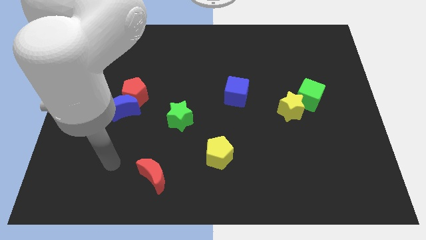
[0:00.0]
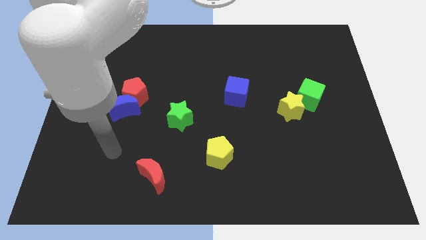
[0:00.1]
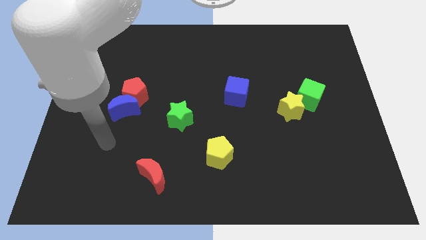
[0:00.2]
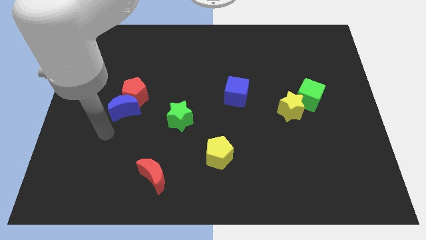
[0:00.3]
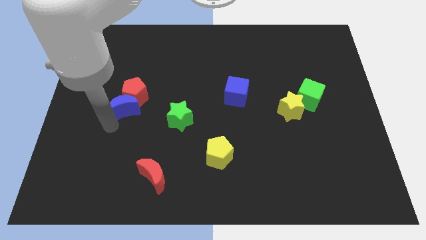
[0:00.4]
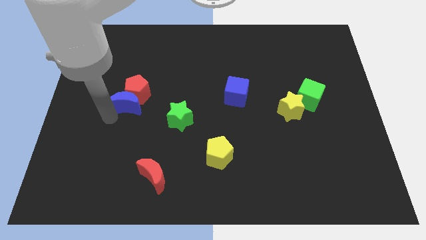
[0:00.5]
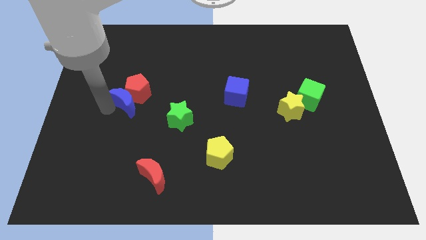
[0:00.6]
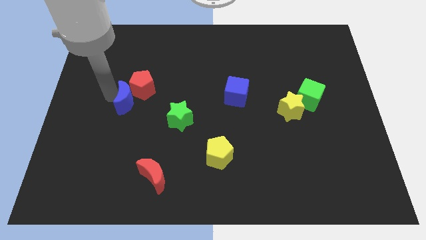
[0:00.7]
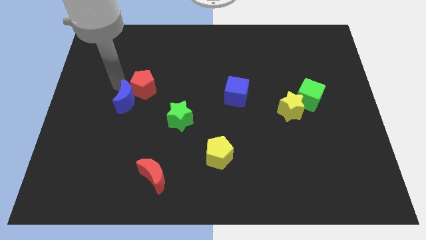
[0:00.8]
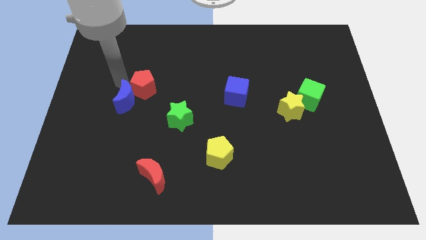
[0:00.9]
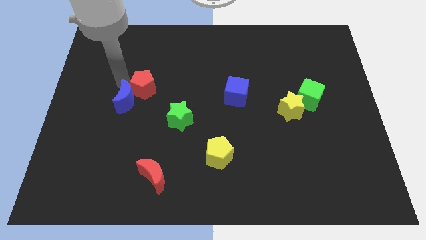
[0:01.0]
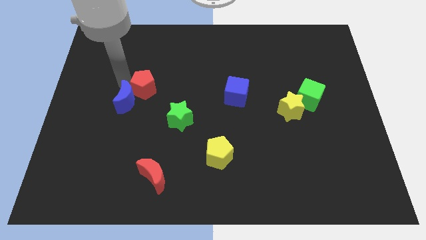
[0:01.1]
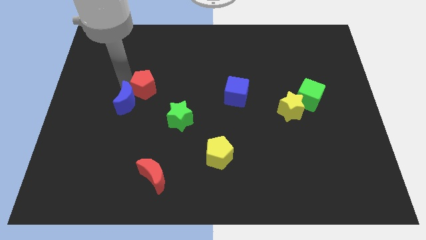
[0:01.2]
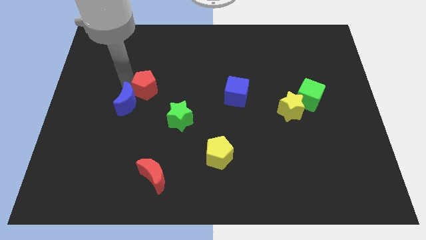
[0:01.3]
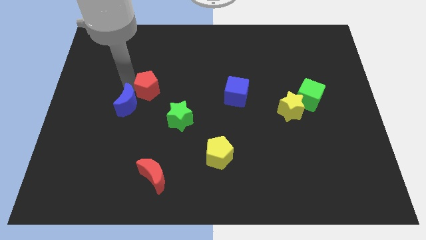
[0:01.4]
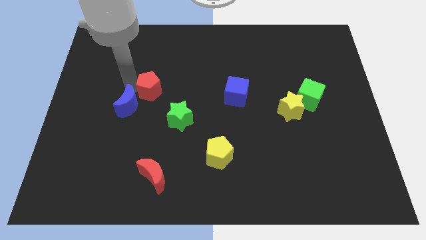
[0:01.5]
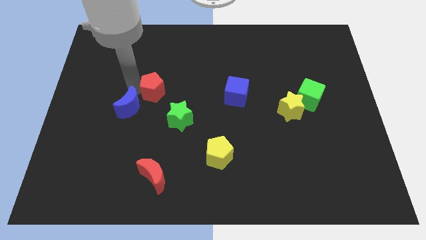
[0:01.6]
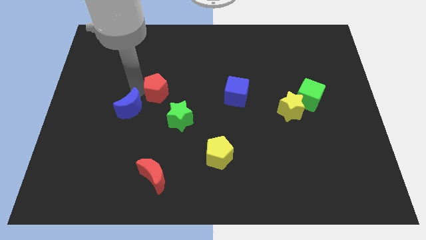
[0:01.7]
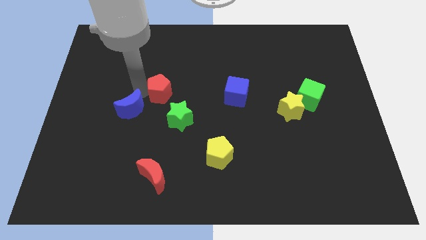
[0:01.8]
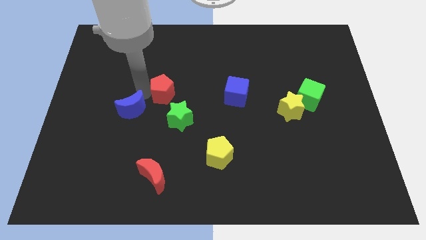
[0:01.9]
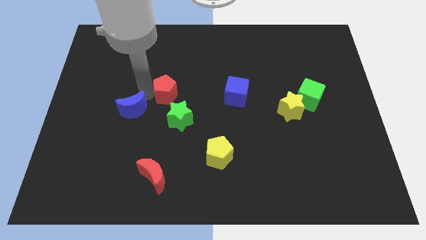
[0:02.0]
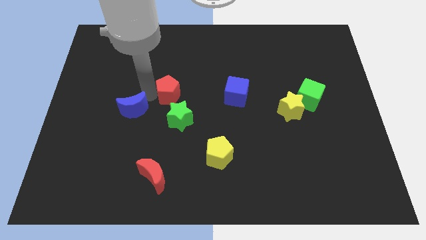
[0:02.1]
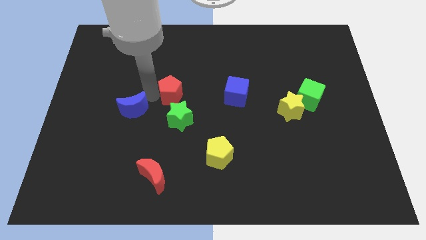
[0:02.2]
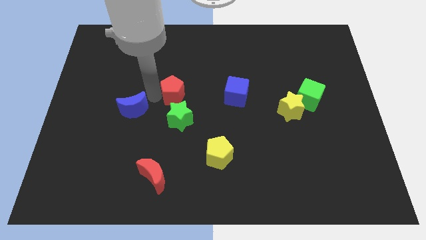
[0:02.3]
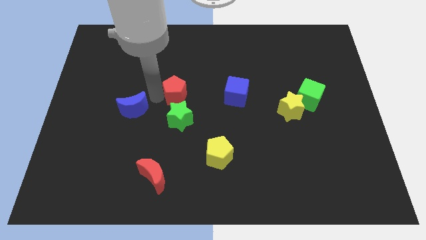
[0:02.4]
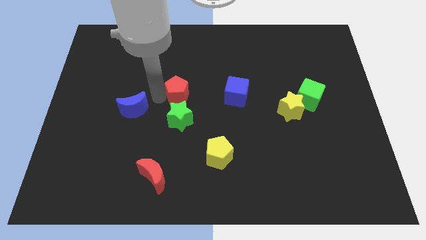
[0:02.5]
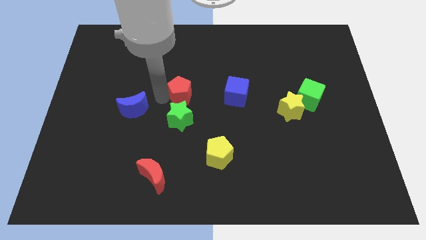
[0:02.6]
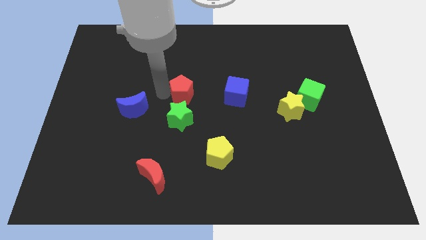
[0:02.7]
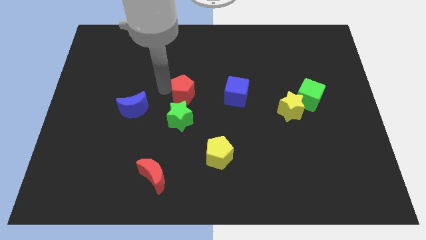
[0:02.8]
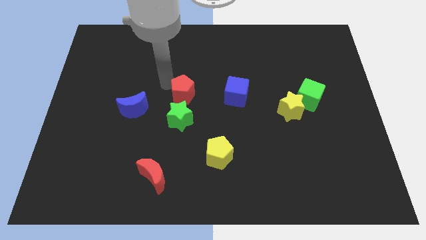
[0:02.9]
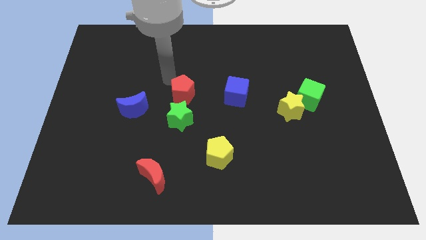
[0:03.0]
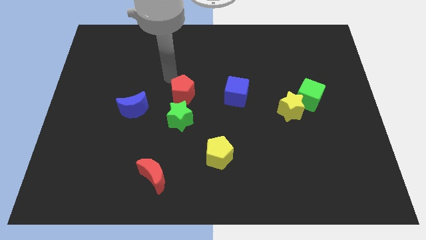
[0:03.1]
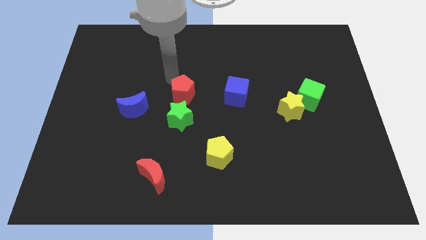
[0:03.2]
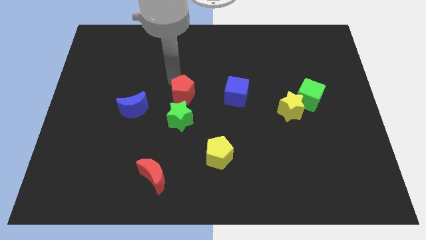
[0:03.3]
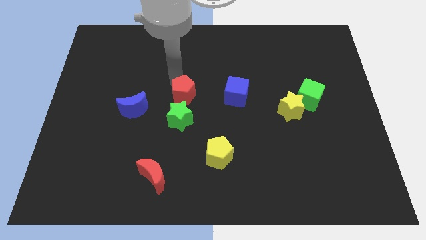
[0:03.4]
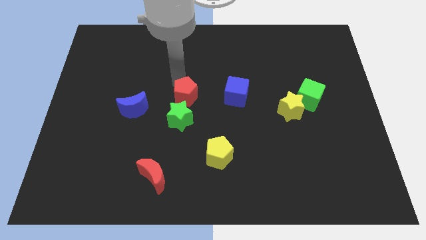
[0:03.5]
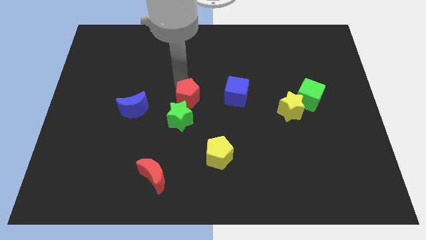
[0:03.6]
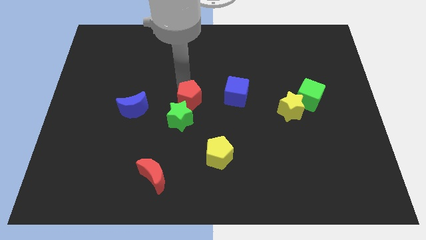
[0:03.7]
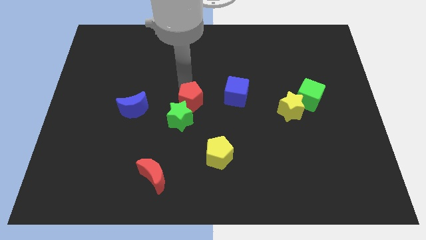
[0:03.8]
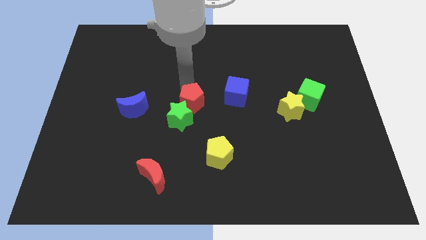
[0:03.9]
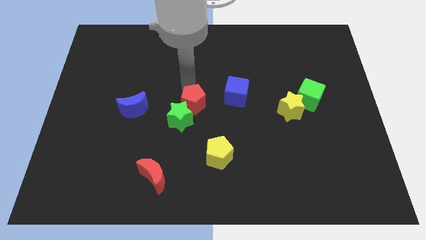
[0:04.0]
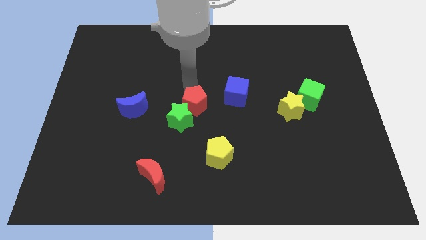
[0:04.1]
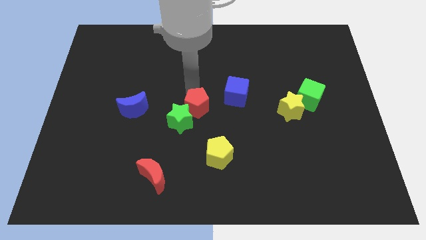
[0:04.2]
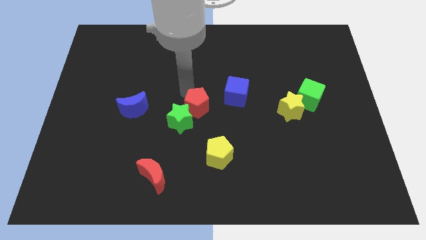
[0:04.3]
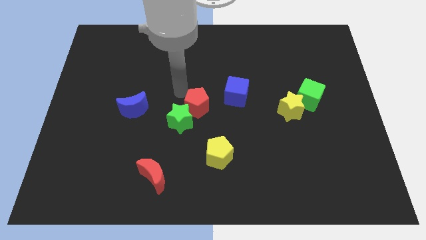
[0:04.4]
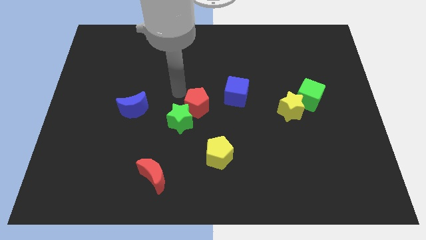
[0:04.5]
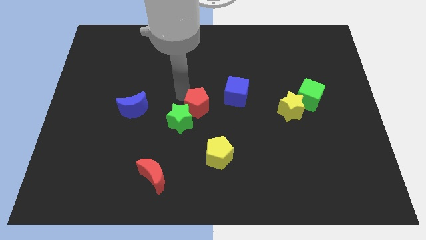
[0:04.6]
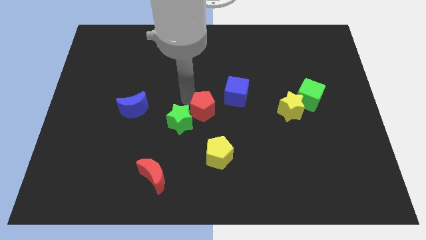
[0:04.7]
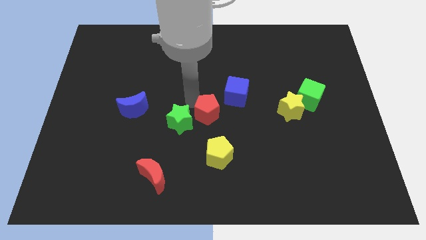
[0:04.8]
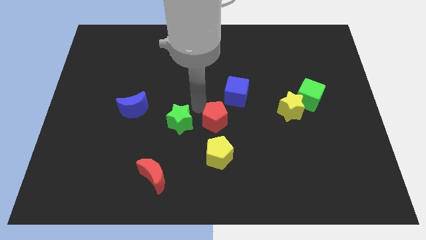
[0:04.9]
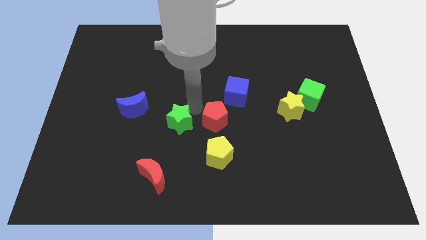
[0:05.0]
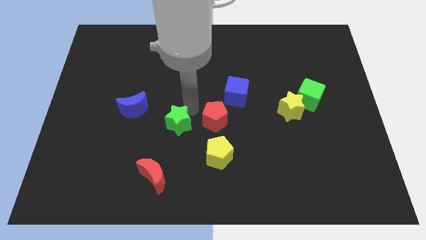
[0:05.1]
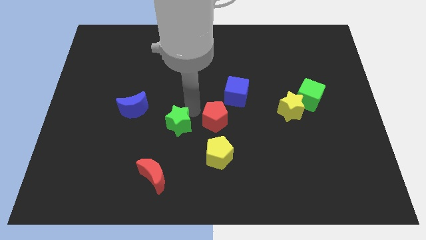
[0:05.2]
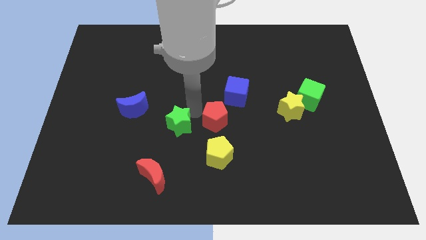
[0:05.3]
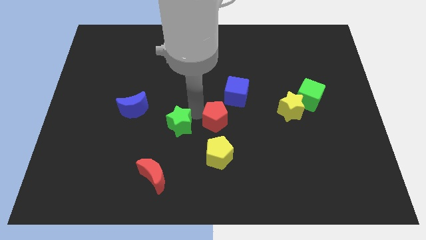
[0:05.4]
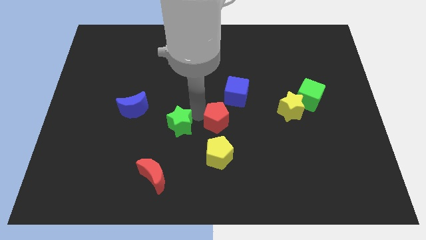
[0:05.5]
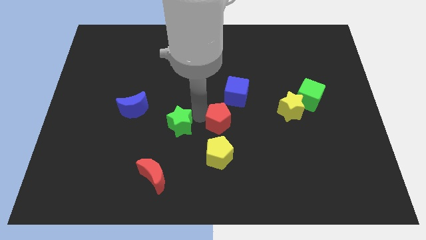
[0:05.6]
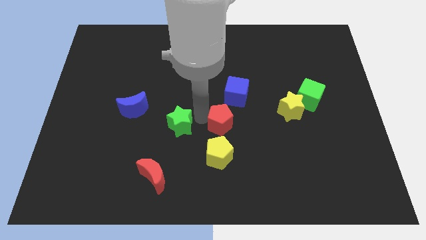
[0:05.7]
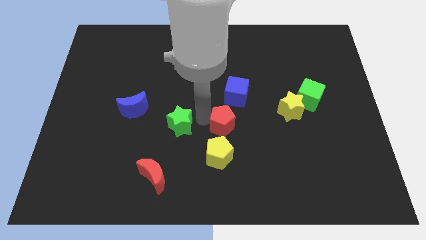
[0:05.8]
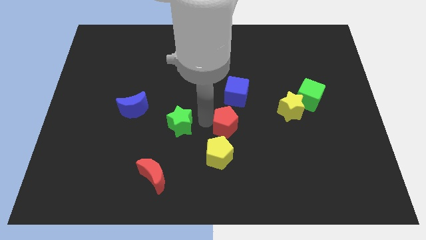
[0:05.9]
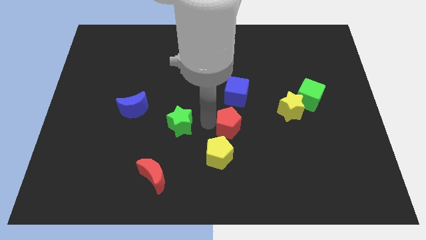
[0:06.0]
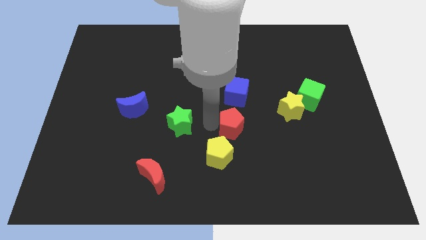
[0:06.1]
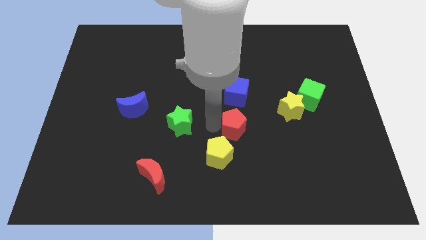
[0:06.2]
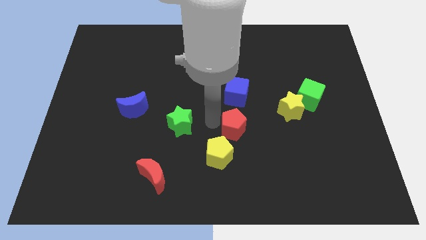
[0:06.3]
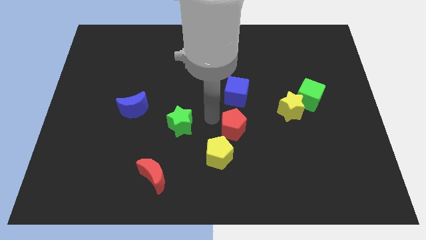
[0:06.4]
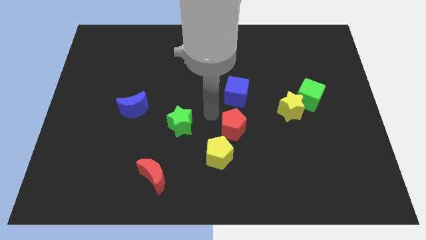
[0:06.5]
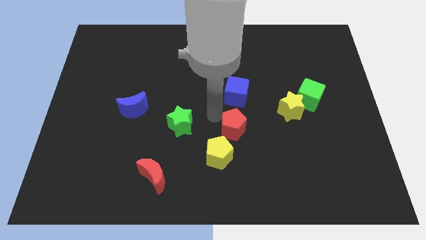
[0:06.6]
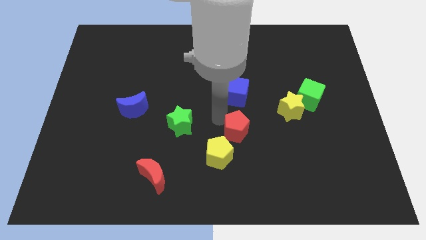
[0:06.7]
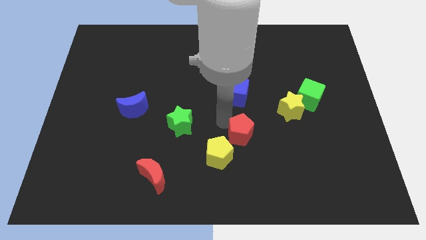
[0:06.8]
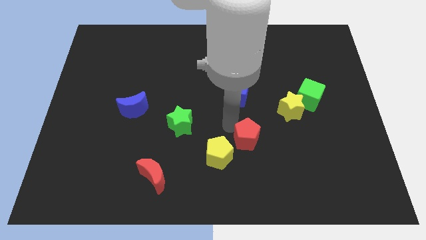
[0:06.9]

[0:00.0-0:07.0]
move the red pentagon just right of the yellow pentagon

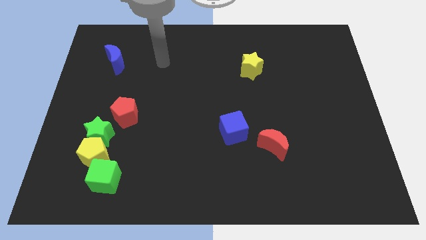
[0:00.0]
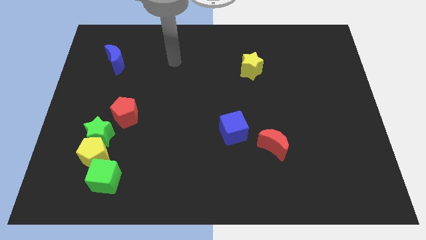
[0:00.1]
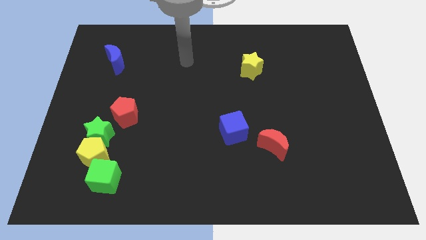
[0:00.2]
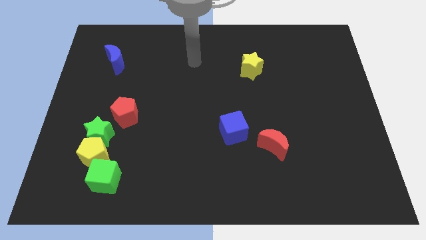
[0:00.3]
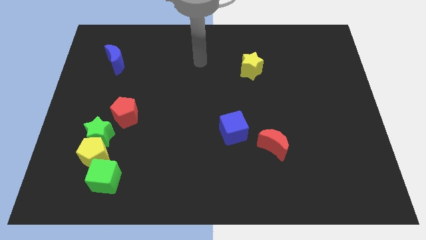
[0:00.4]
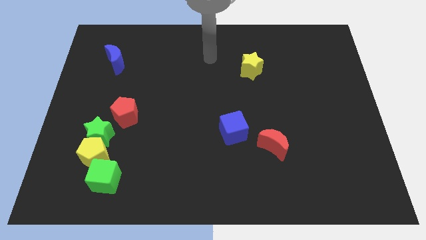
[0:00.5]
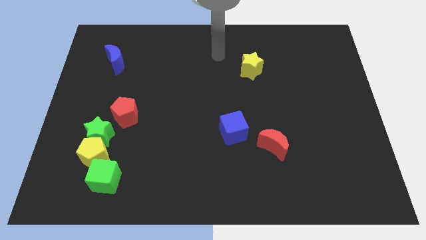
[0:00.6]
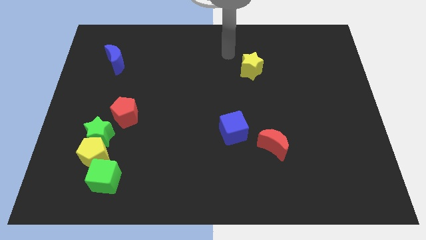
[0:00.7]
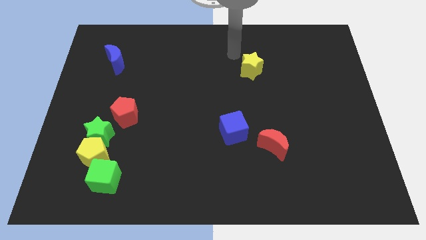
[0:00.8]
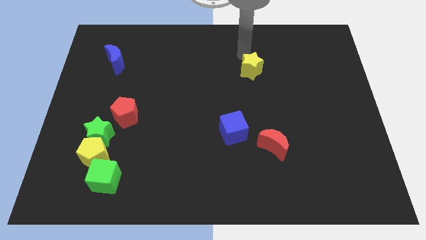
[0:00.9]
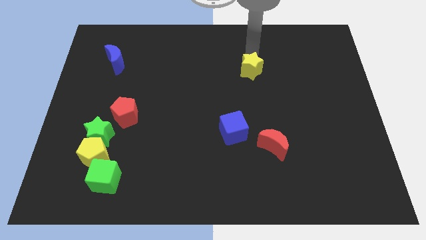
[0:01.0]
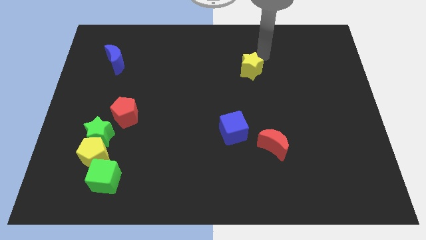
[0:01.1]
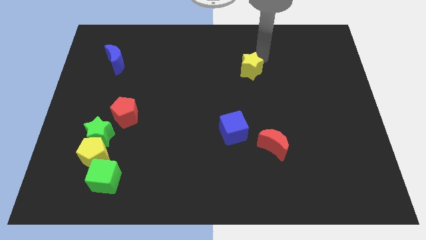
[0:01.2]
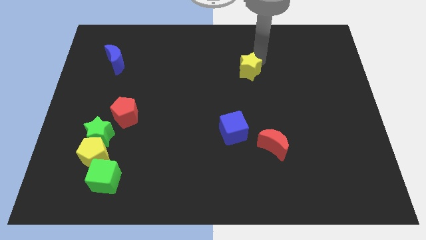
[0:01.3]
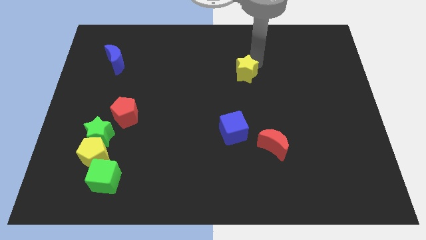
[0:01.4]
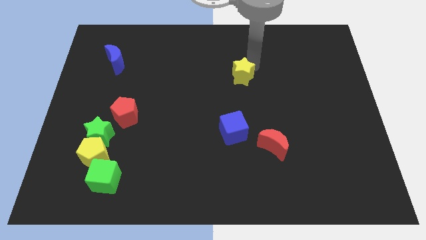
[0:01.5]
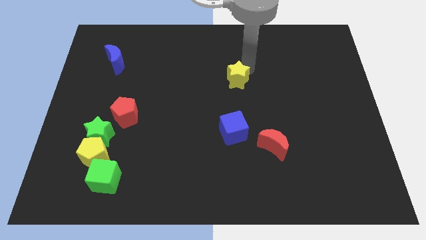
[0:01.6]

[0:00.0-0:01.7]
slide the yellow star above the blue cube
